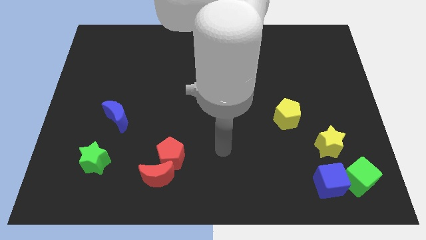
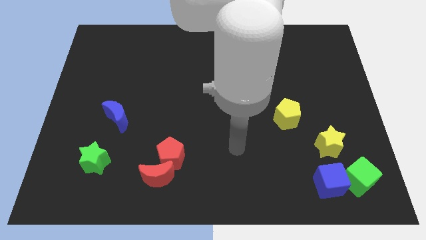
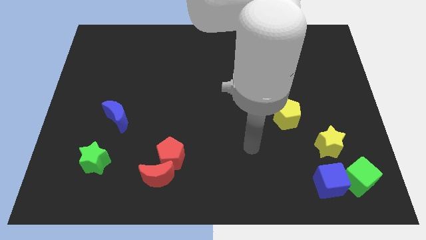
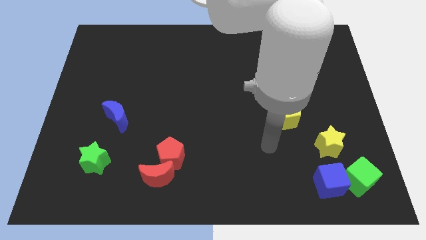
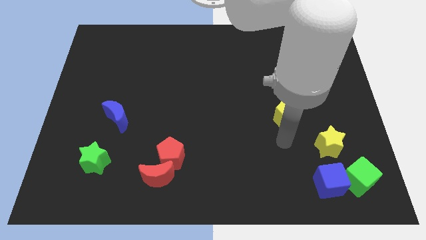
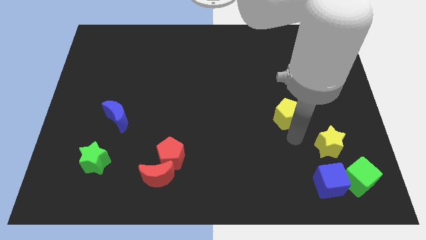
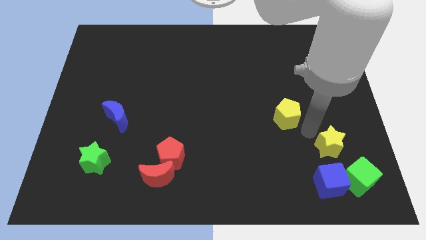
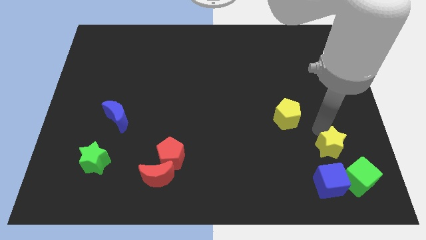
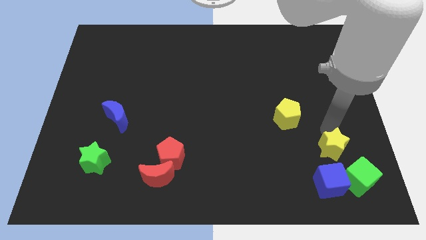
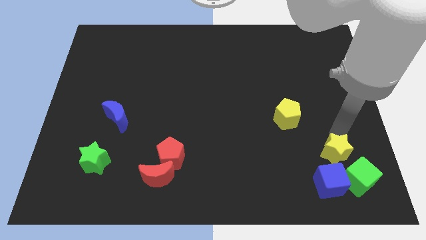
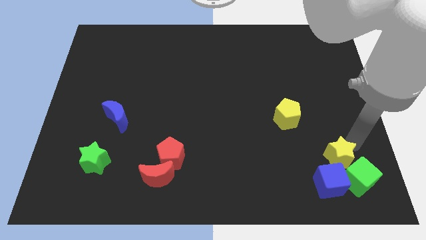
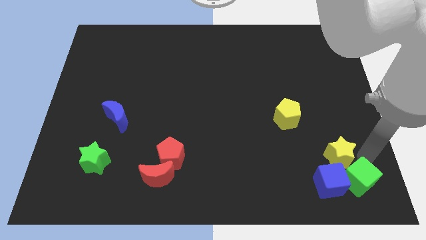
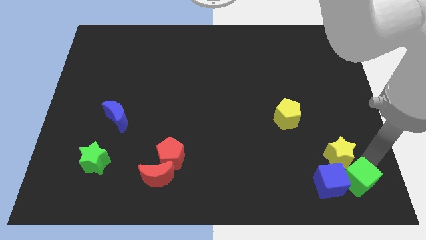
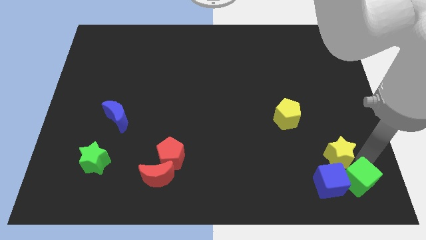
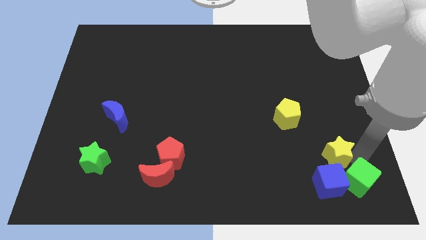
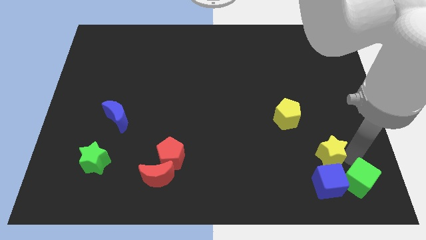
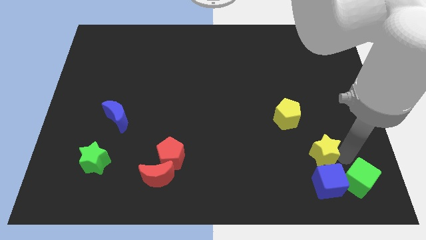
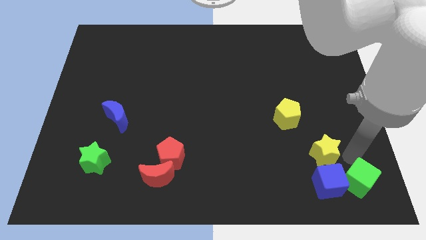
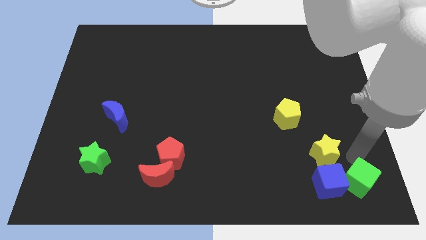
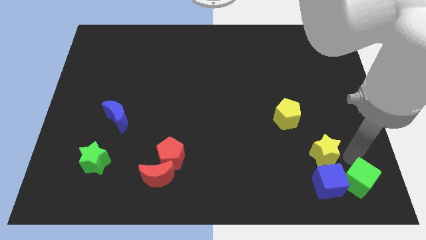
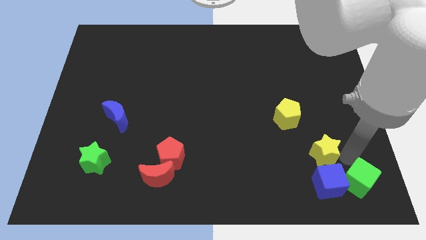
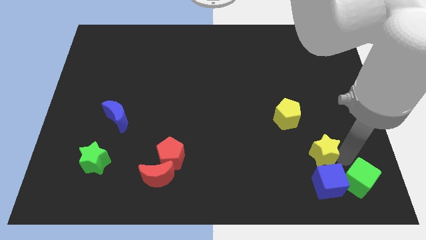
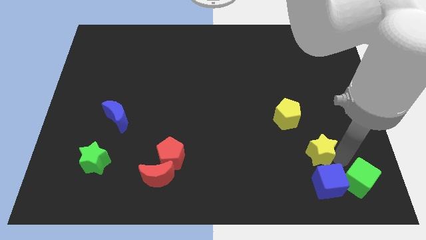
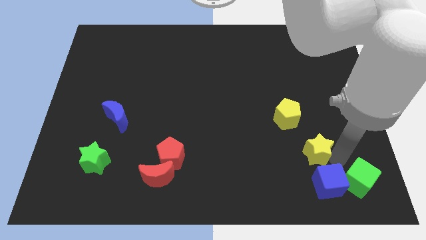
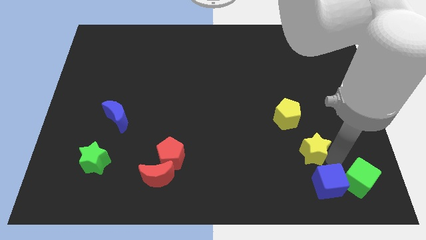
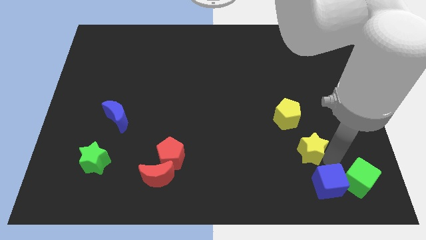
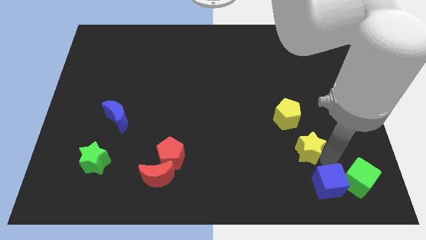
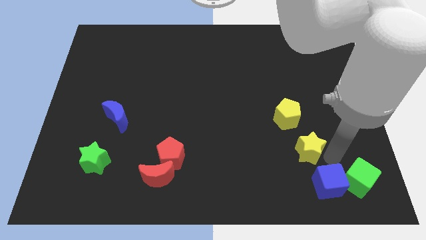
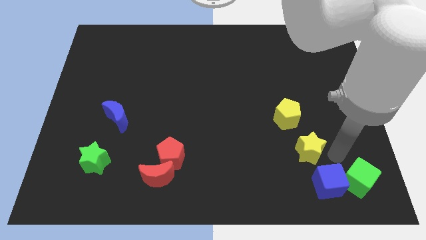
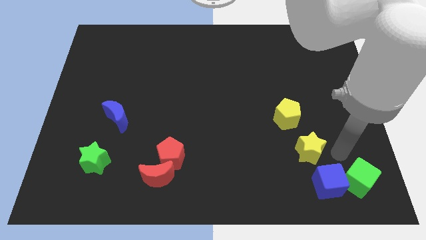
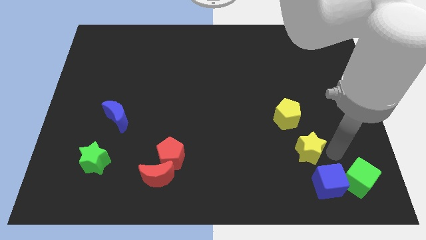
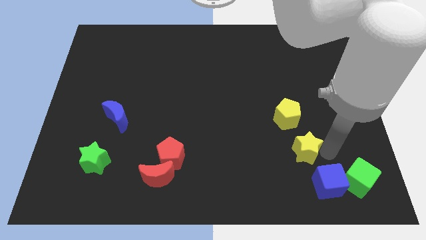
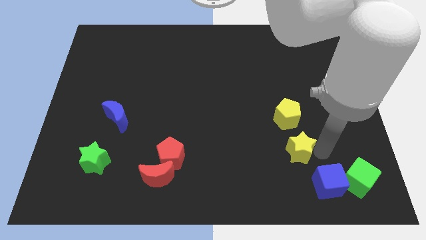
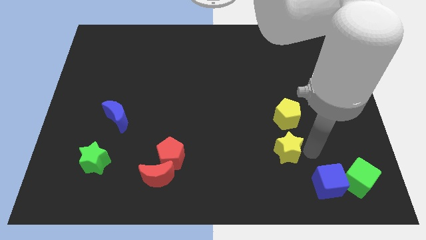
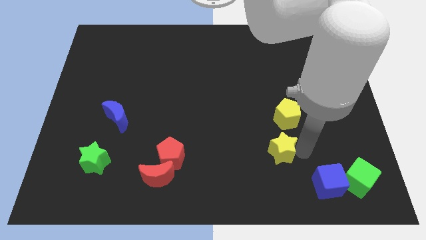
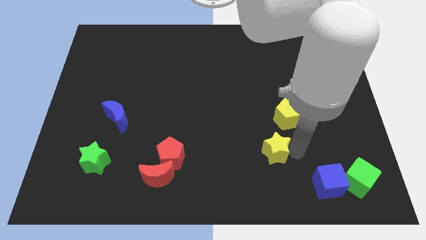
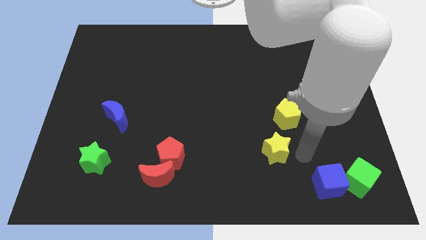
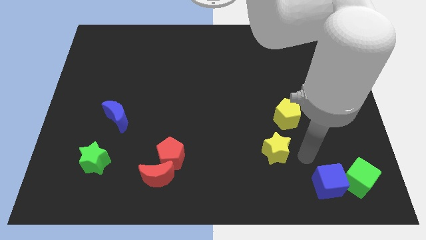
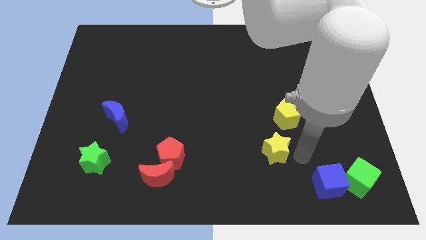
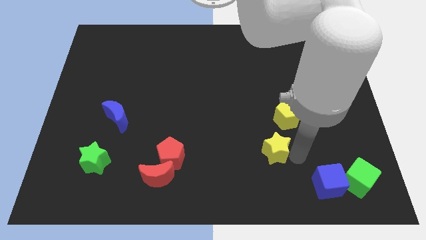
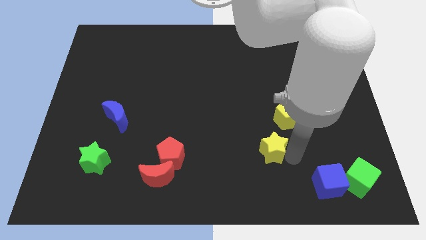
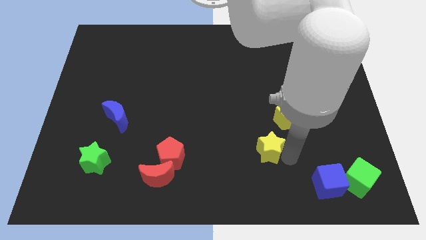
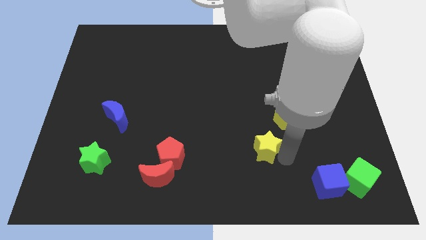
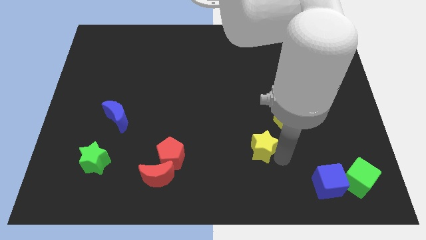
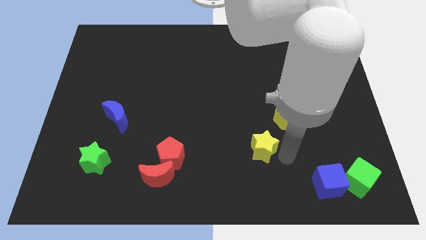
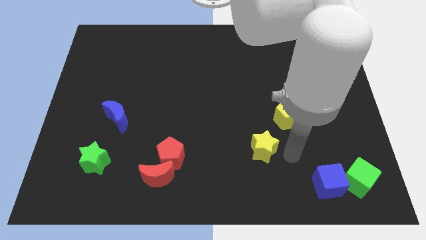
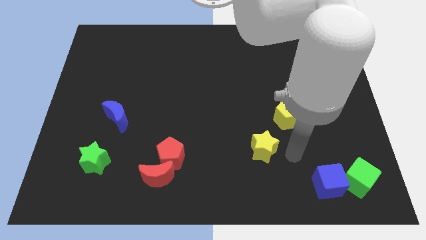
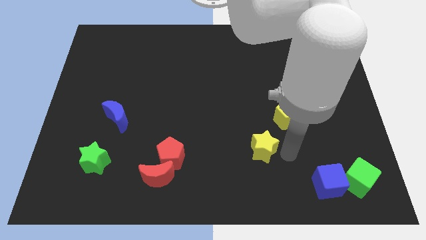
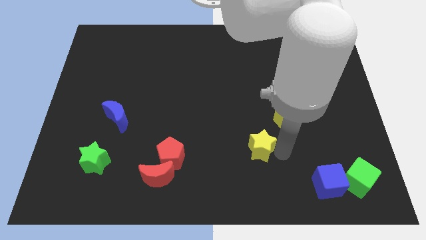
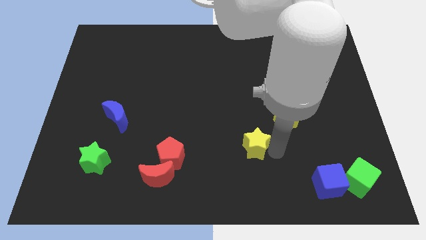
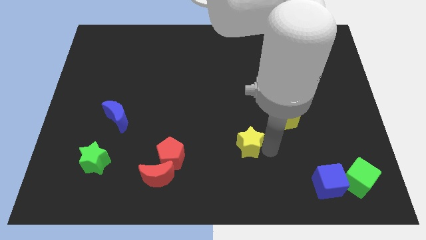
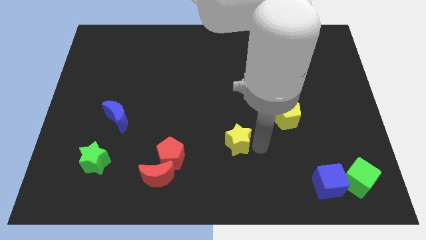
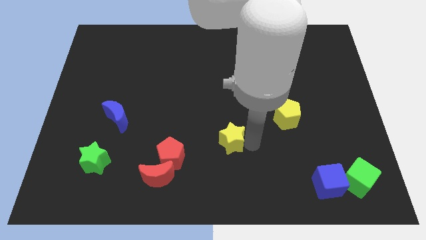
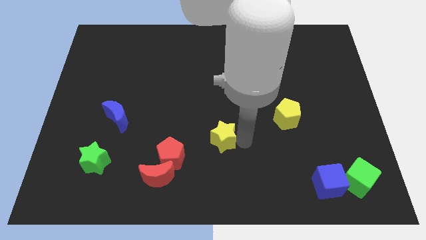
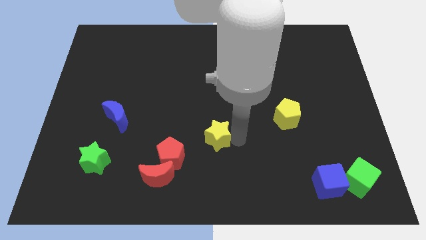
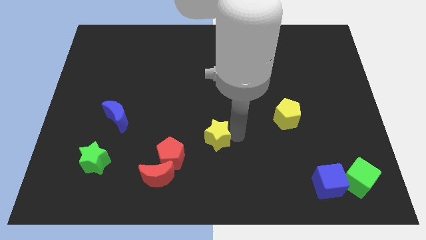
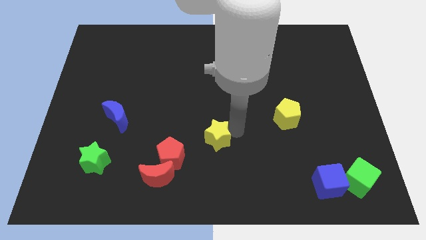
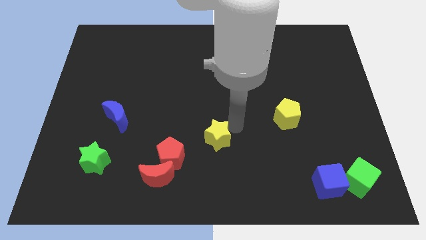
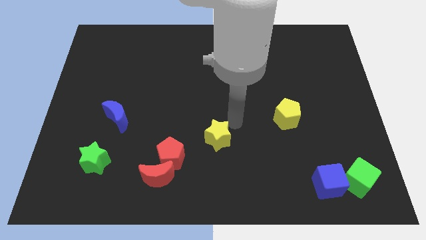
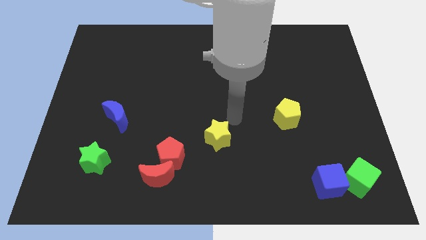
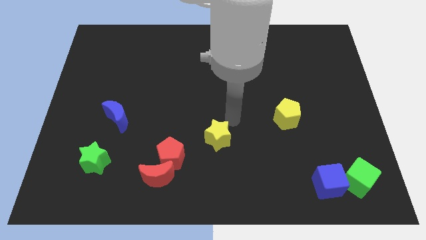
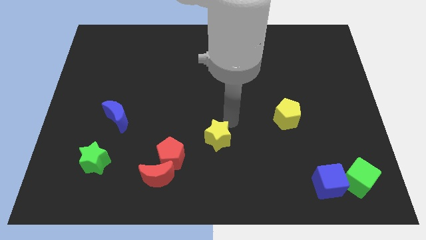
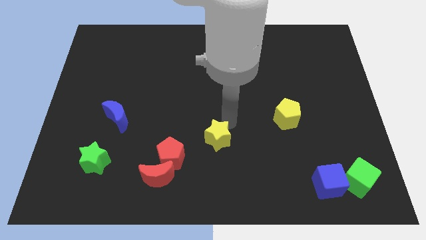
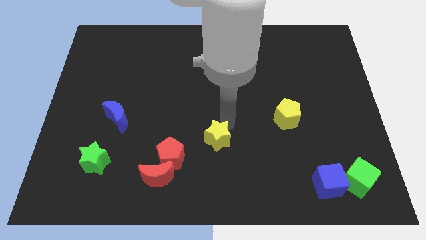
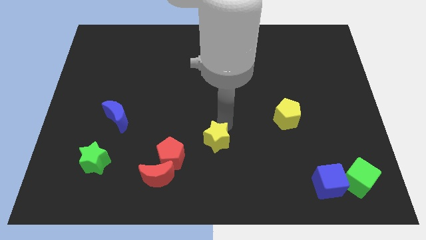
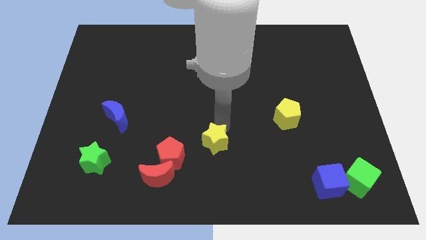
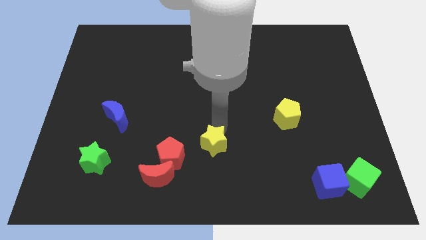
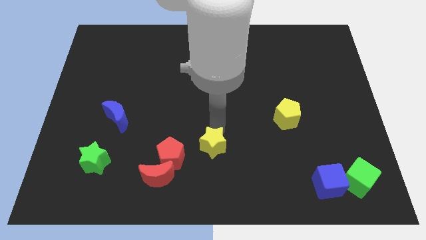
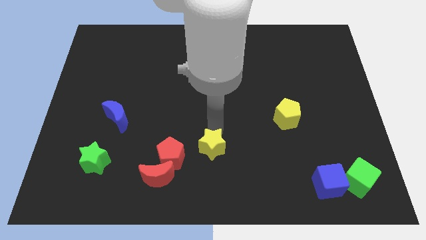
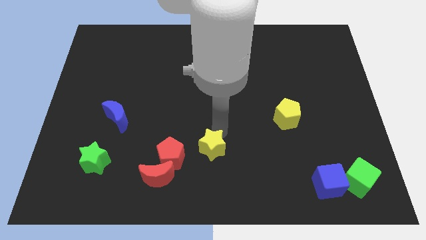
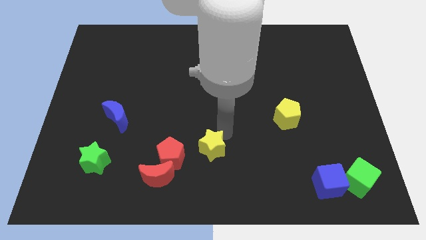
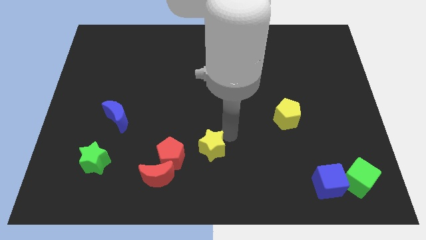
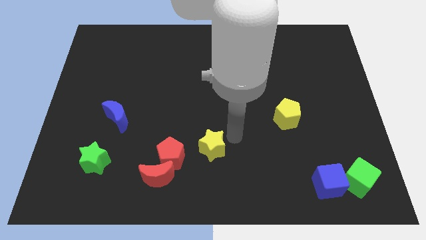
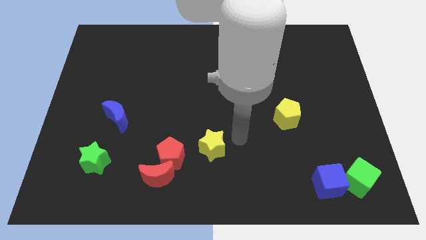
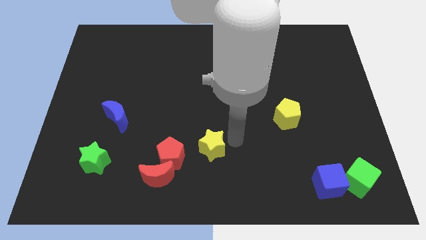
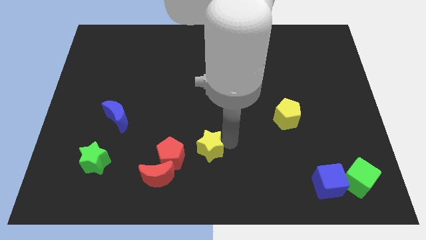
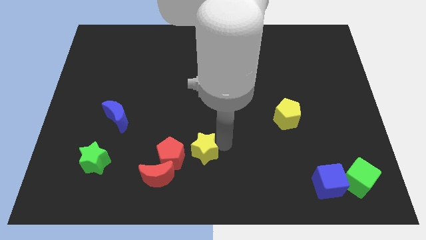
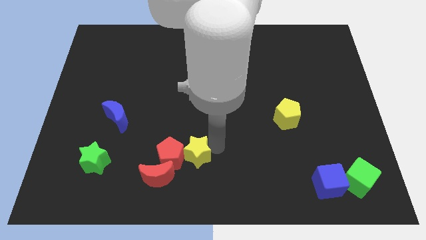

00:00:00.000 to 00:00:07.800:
push the yellow star towards the red pentagon
